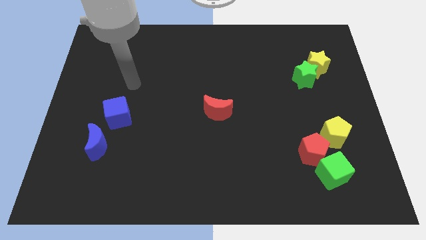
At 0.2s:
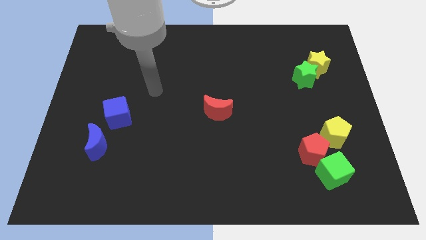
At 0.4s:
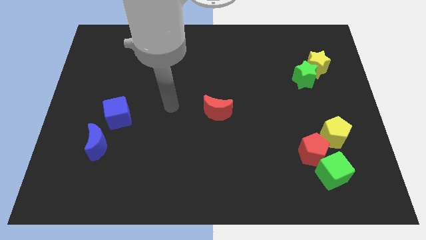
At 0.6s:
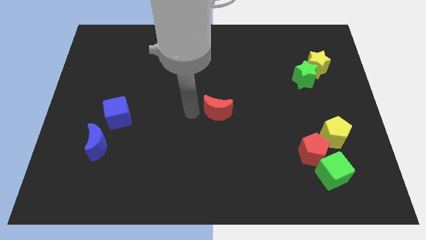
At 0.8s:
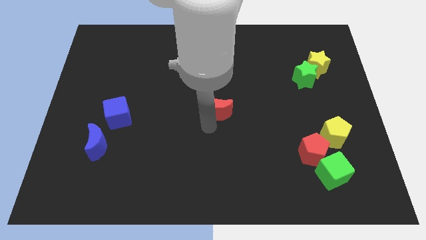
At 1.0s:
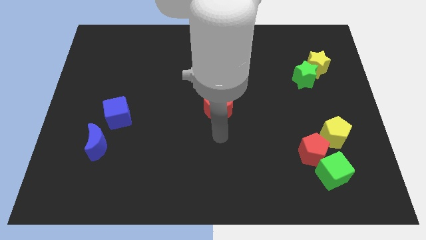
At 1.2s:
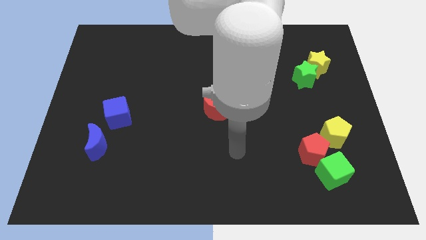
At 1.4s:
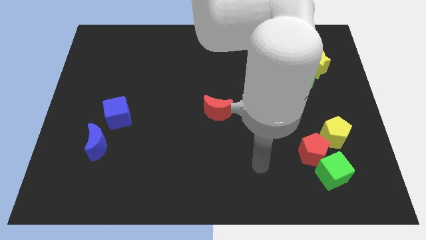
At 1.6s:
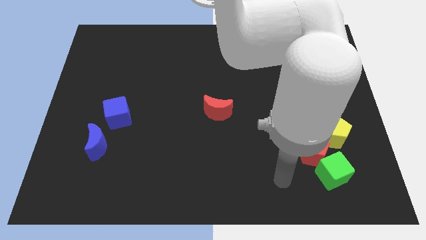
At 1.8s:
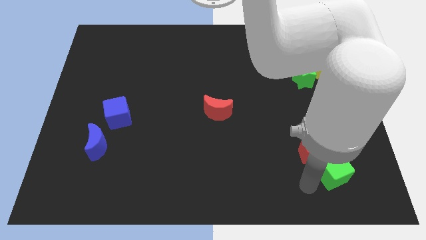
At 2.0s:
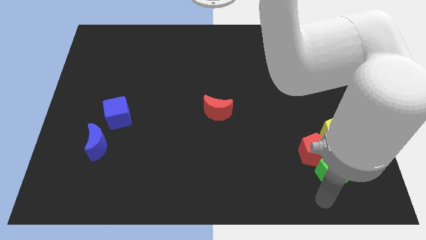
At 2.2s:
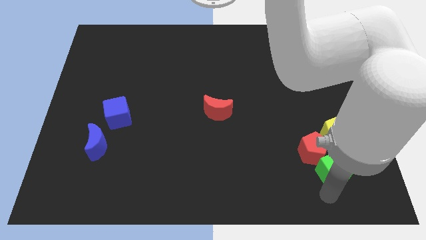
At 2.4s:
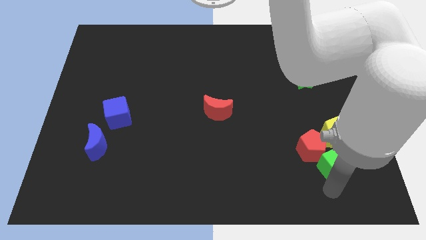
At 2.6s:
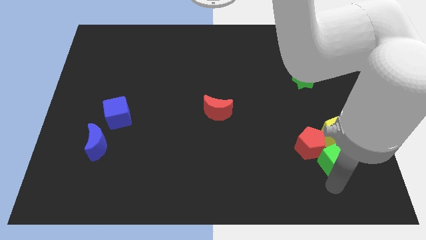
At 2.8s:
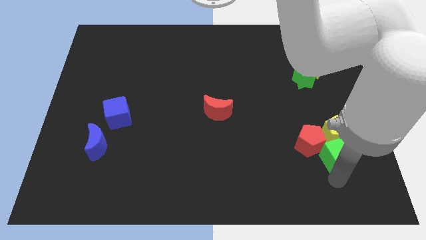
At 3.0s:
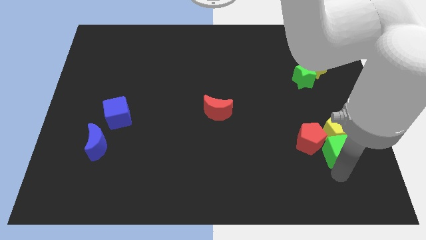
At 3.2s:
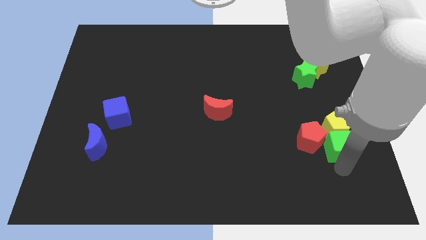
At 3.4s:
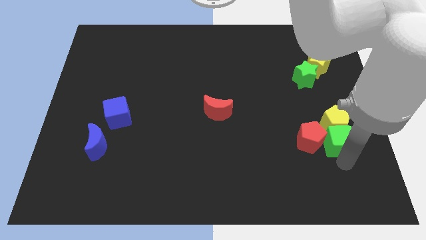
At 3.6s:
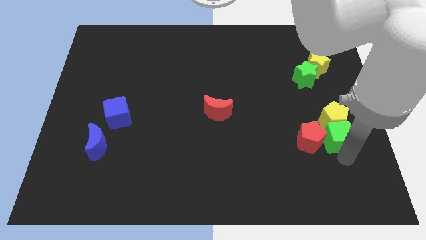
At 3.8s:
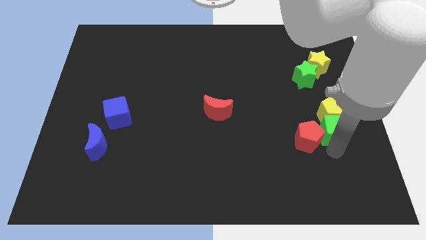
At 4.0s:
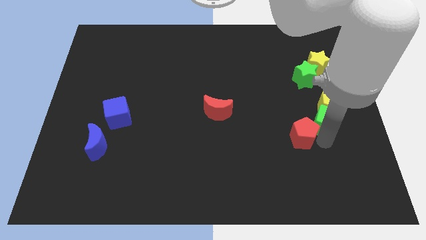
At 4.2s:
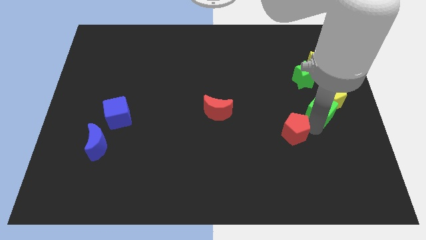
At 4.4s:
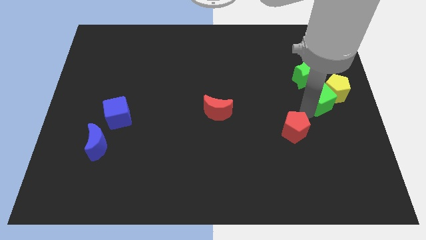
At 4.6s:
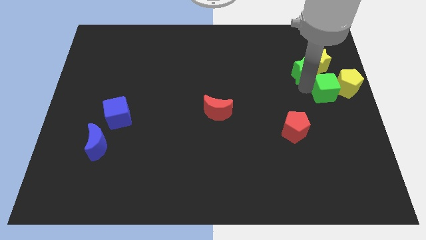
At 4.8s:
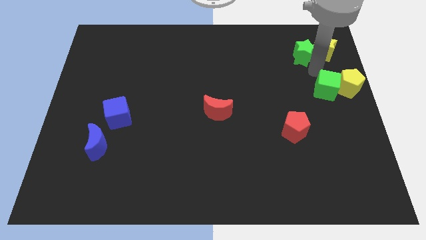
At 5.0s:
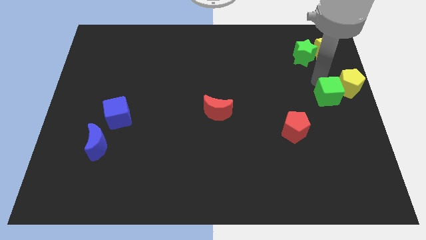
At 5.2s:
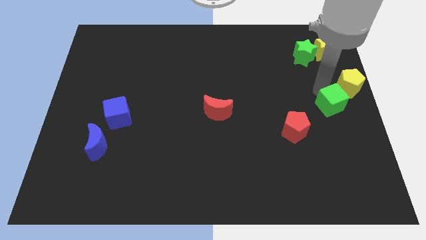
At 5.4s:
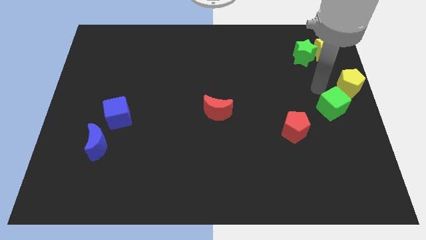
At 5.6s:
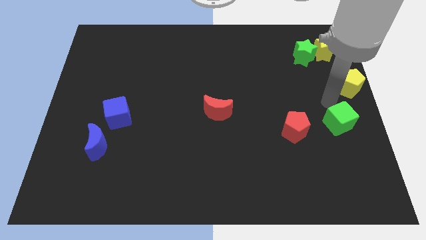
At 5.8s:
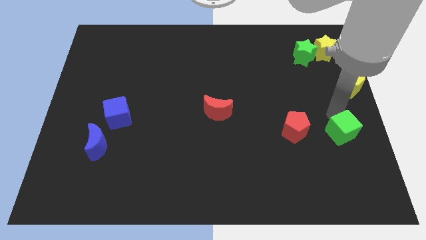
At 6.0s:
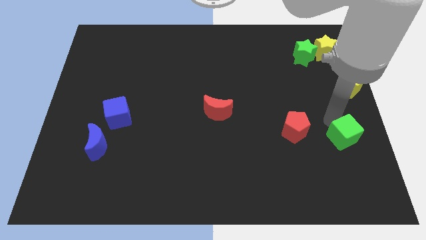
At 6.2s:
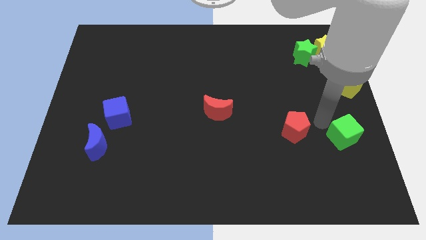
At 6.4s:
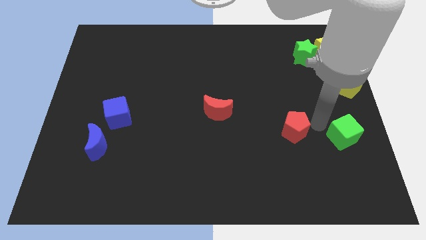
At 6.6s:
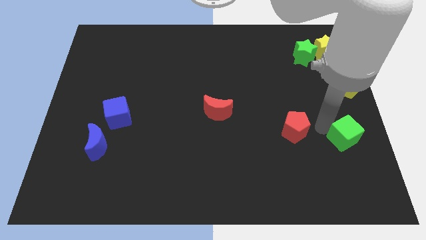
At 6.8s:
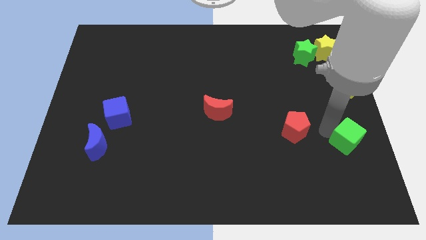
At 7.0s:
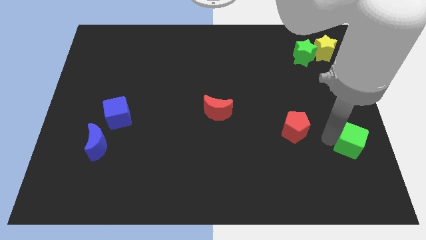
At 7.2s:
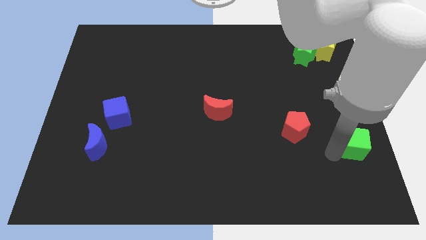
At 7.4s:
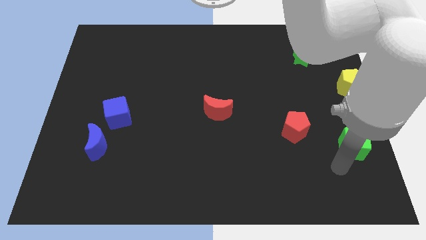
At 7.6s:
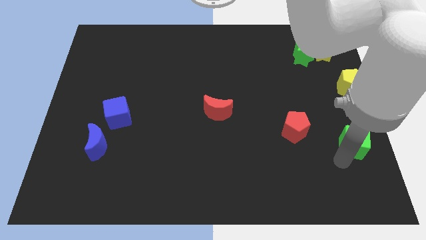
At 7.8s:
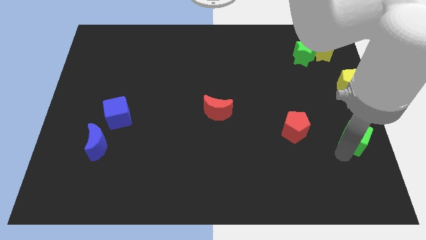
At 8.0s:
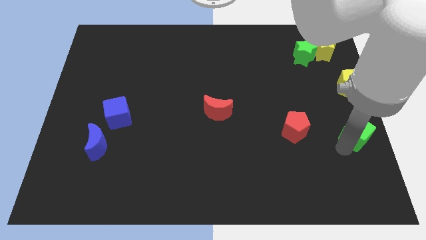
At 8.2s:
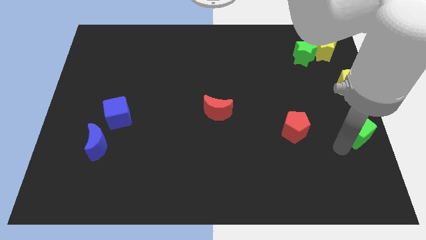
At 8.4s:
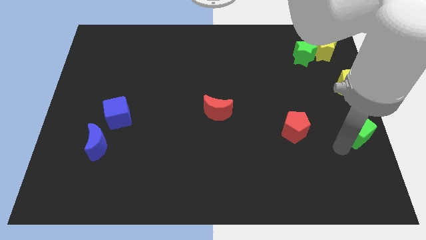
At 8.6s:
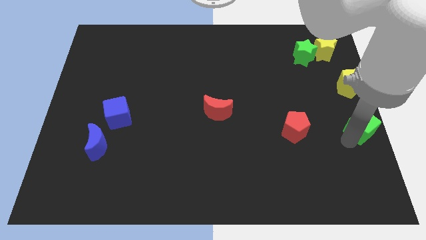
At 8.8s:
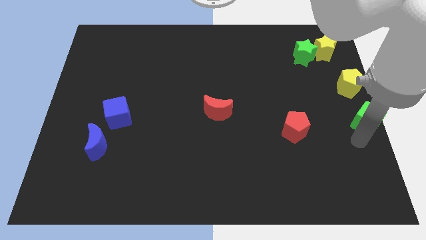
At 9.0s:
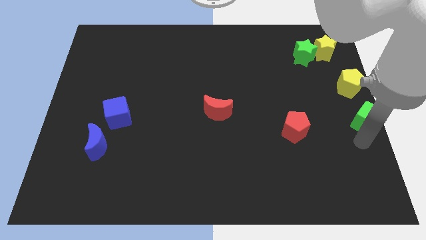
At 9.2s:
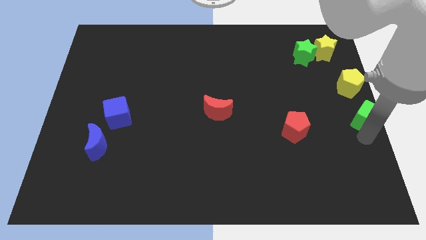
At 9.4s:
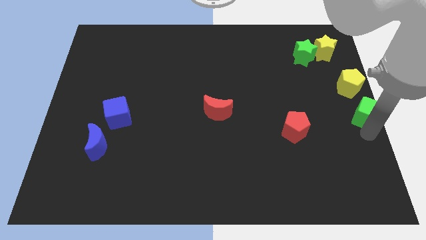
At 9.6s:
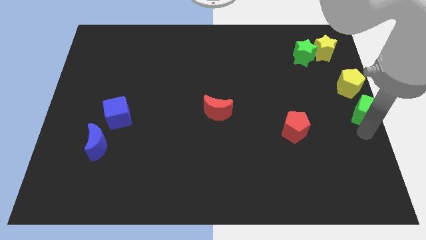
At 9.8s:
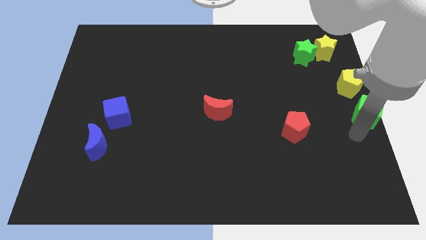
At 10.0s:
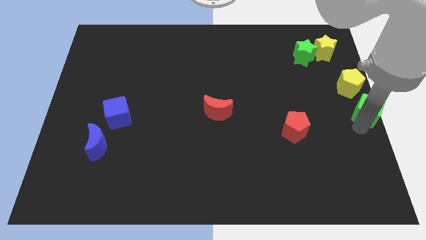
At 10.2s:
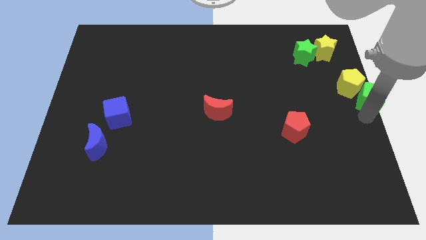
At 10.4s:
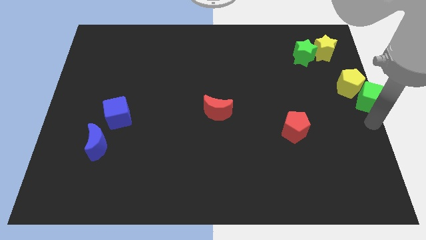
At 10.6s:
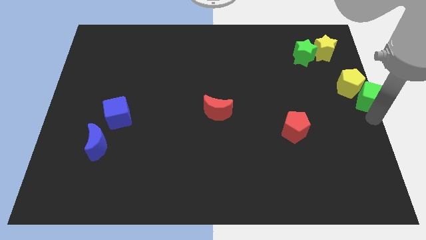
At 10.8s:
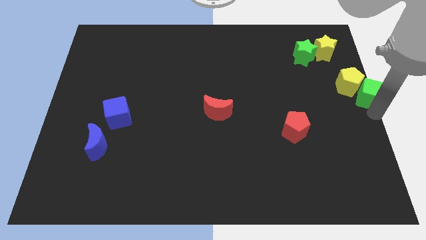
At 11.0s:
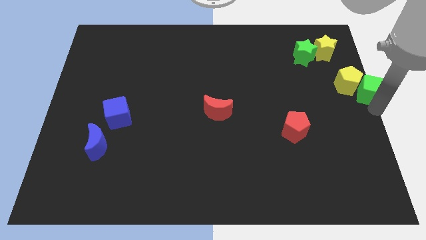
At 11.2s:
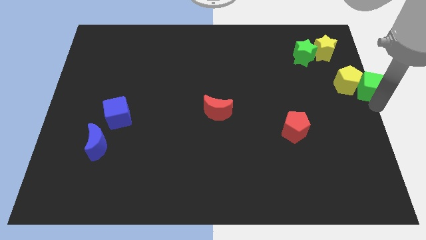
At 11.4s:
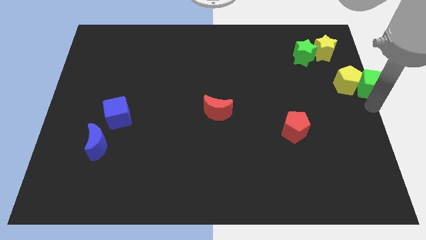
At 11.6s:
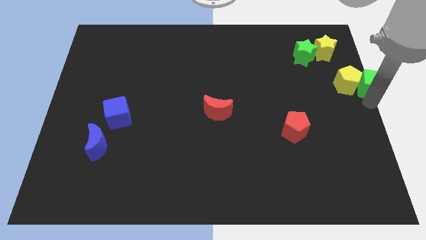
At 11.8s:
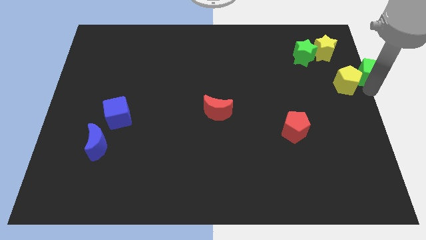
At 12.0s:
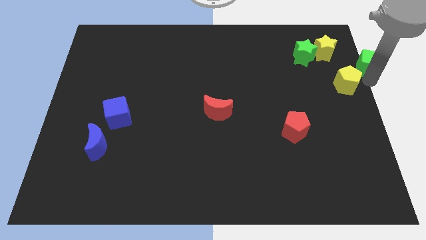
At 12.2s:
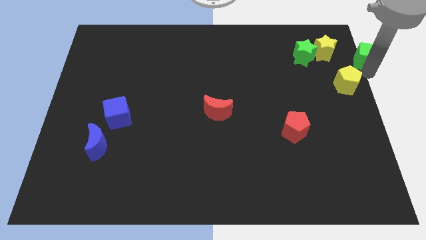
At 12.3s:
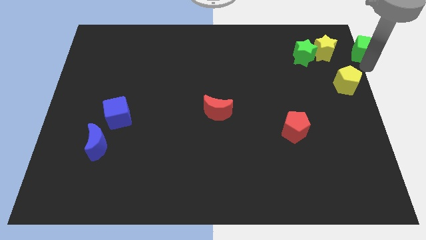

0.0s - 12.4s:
push the green cube to the top right corner
